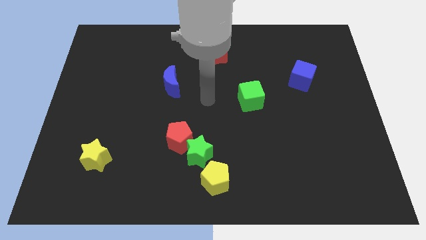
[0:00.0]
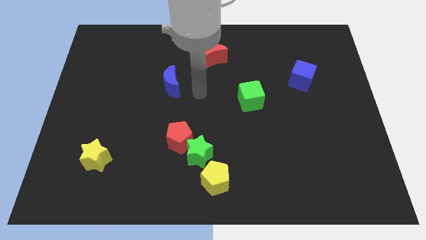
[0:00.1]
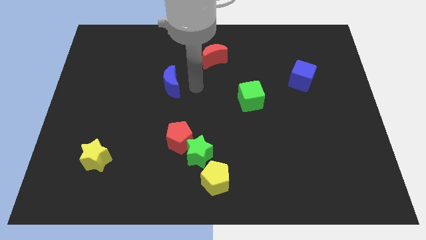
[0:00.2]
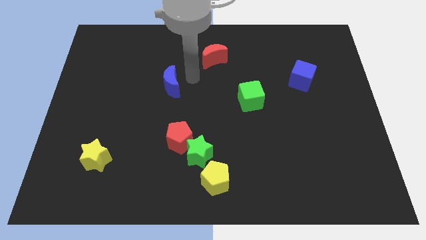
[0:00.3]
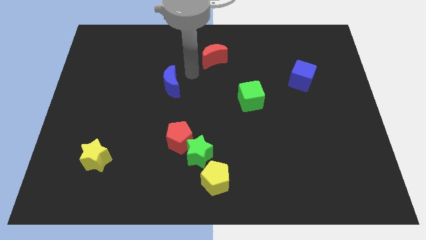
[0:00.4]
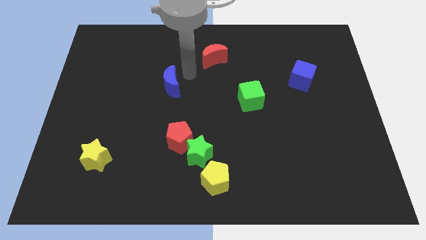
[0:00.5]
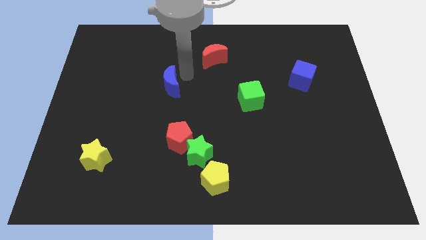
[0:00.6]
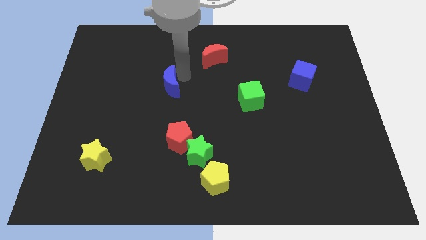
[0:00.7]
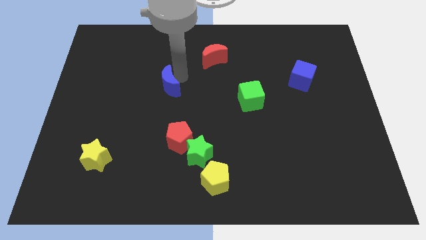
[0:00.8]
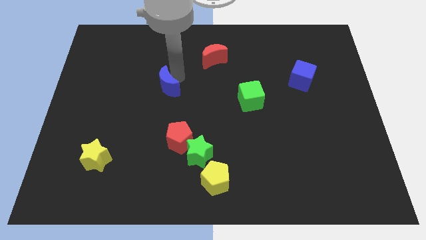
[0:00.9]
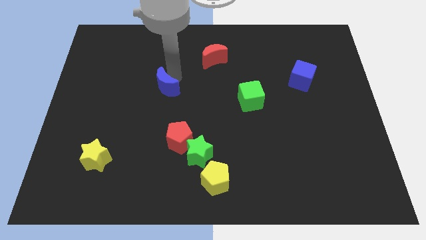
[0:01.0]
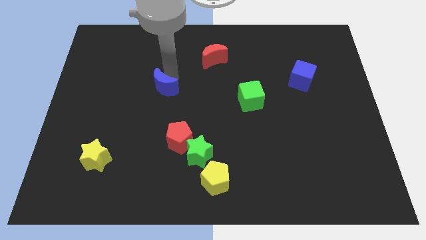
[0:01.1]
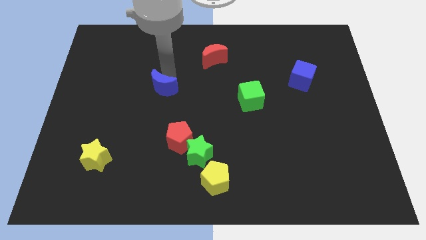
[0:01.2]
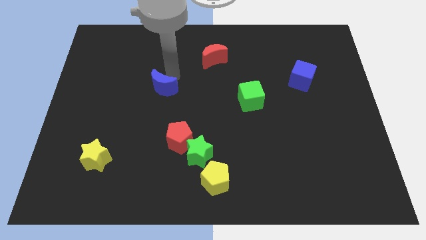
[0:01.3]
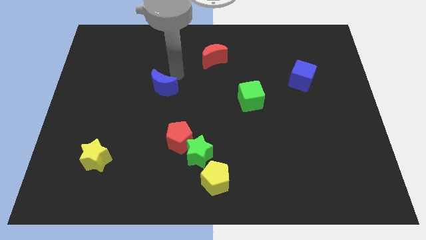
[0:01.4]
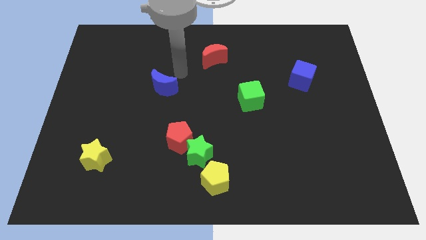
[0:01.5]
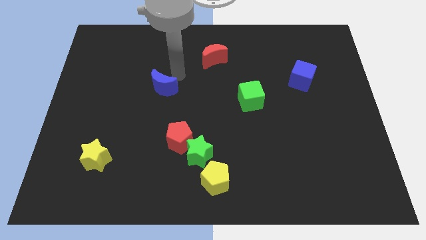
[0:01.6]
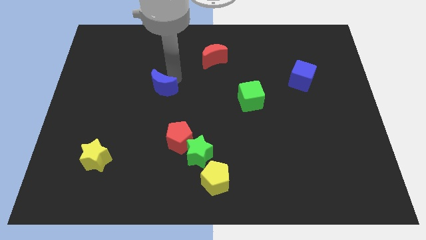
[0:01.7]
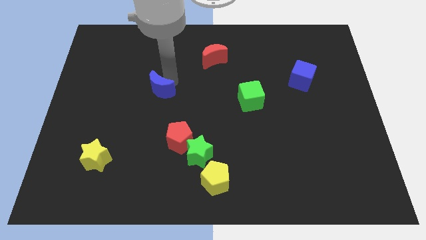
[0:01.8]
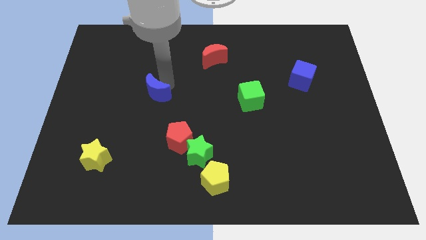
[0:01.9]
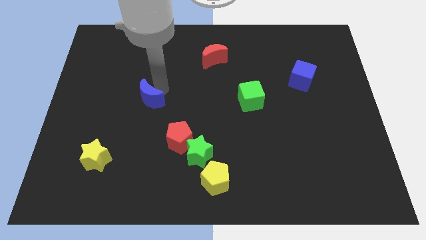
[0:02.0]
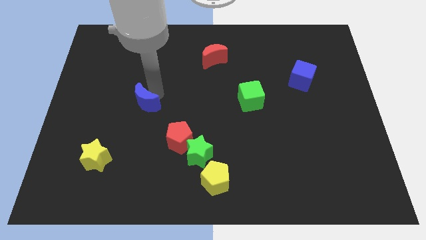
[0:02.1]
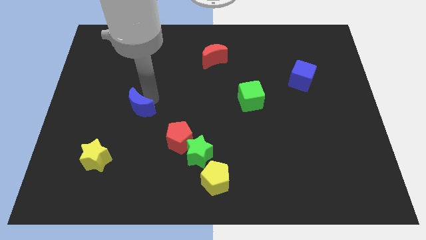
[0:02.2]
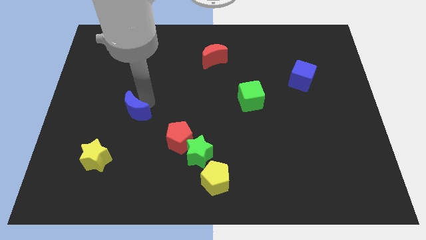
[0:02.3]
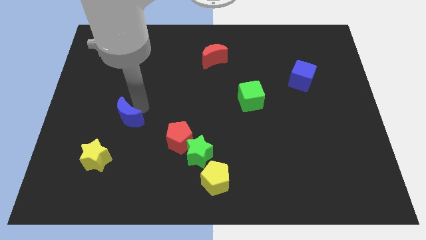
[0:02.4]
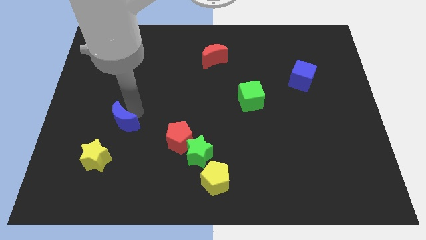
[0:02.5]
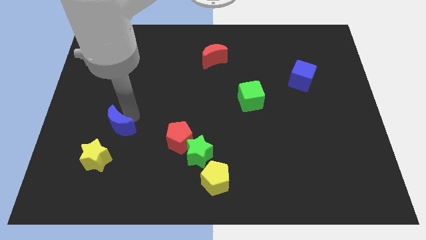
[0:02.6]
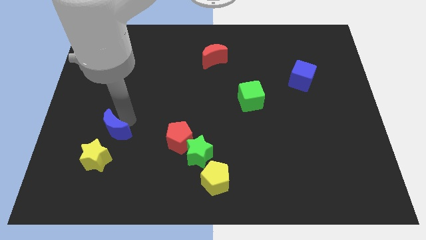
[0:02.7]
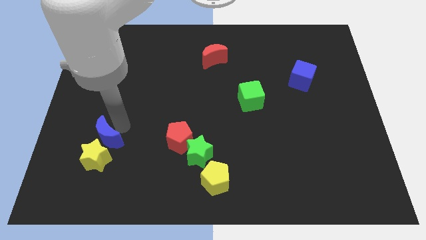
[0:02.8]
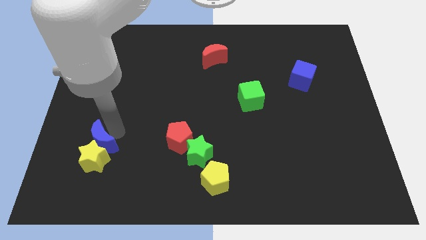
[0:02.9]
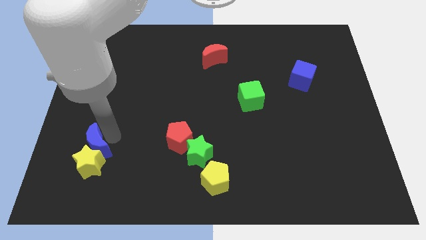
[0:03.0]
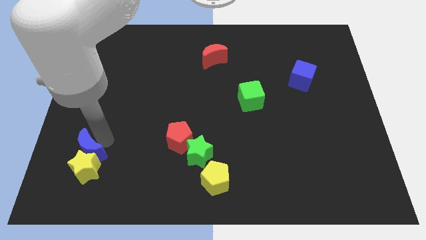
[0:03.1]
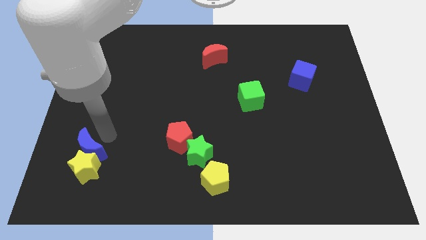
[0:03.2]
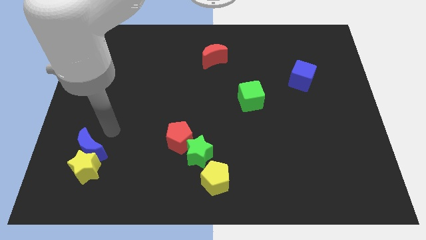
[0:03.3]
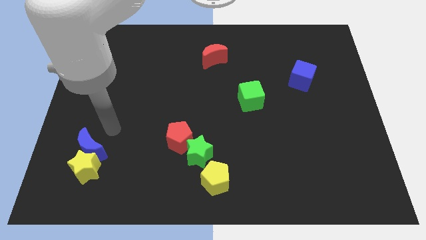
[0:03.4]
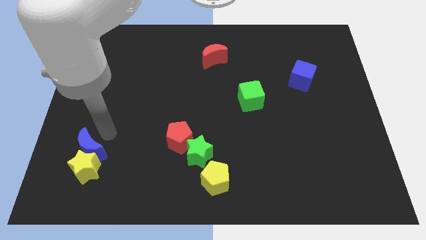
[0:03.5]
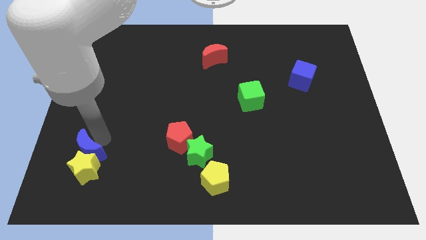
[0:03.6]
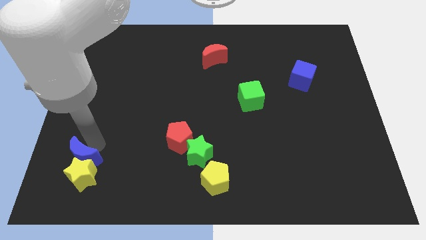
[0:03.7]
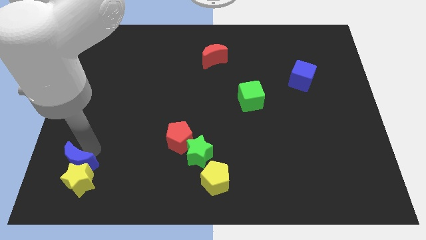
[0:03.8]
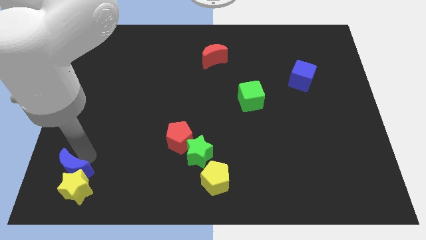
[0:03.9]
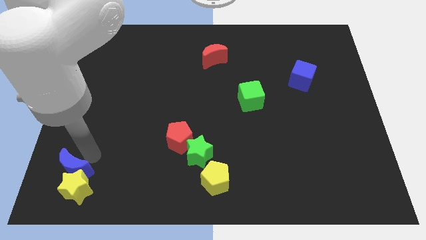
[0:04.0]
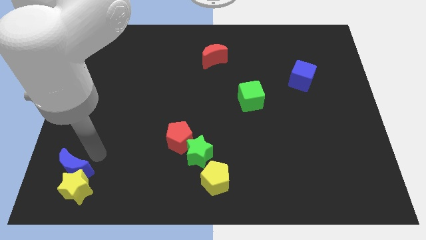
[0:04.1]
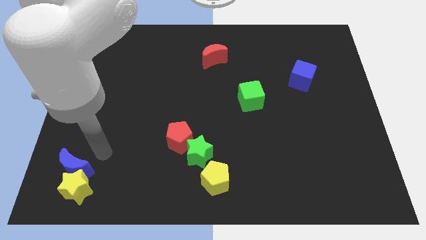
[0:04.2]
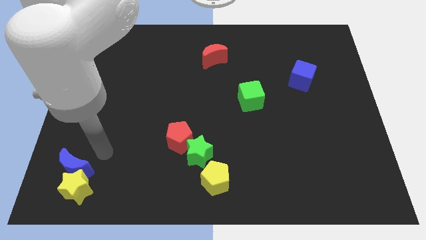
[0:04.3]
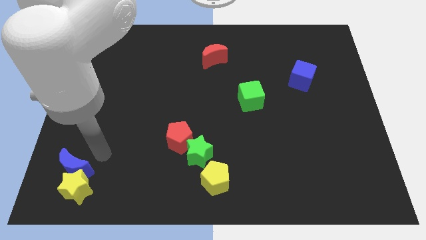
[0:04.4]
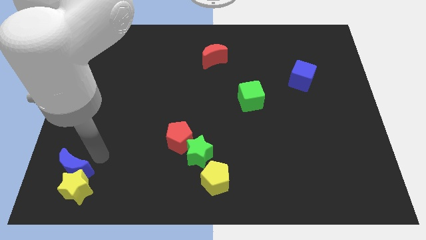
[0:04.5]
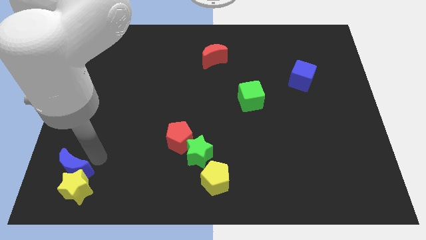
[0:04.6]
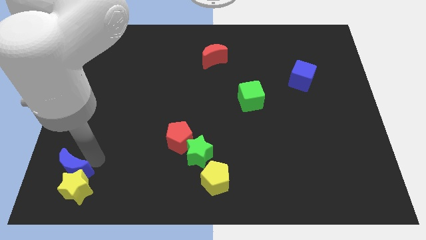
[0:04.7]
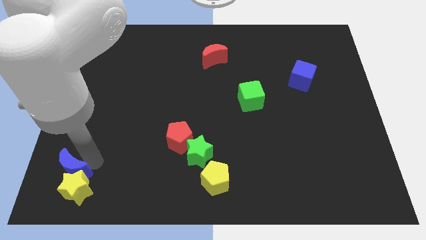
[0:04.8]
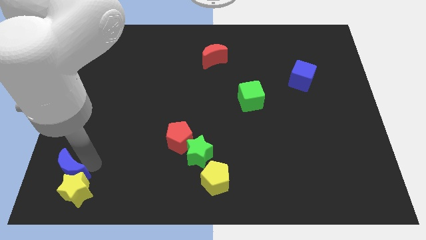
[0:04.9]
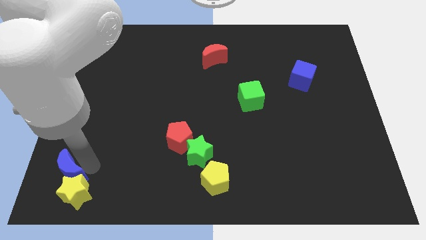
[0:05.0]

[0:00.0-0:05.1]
slide the blue moon to the bottom left

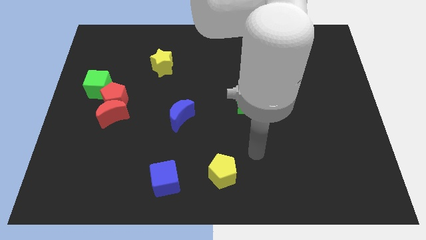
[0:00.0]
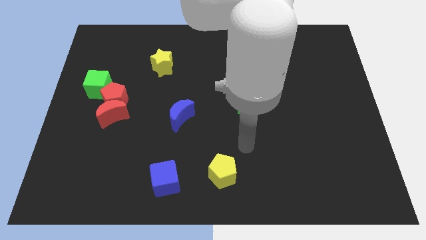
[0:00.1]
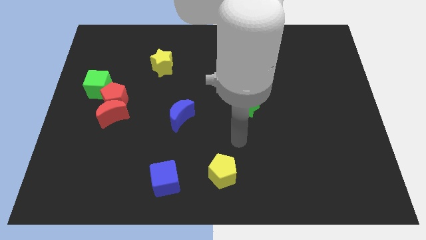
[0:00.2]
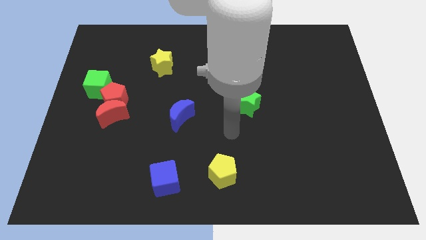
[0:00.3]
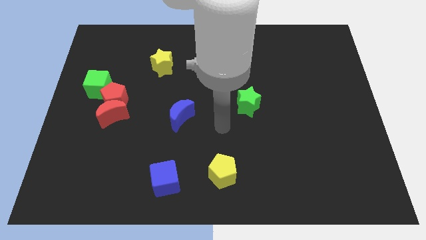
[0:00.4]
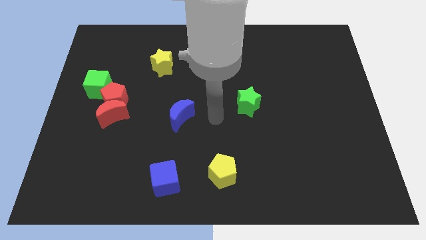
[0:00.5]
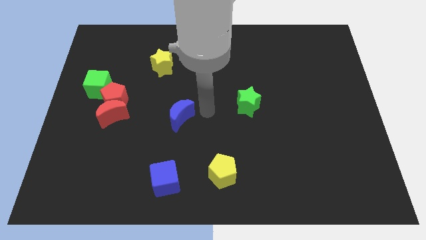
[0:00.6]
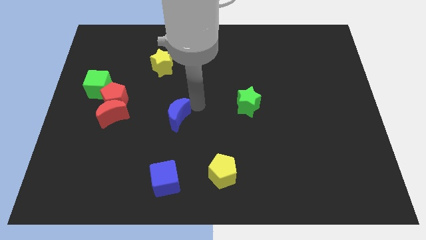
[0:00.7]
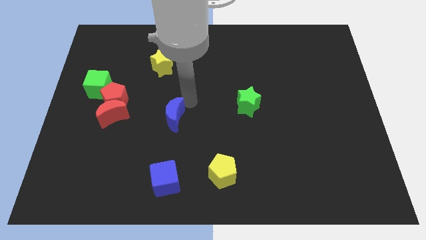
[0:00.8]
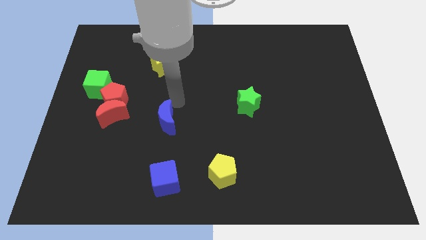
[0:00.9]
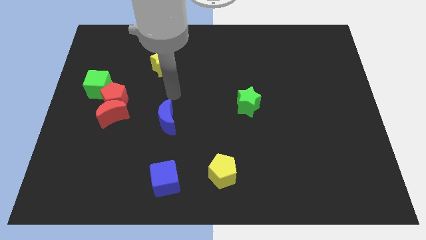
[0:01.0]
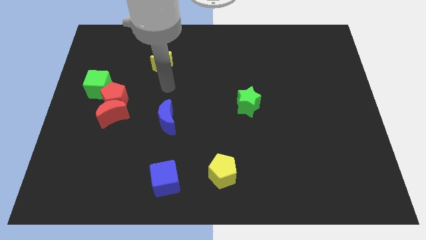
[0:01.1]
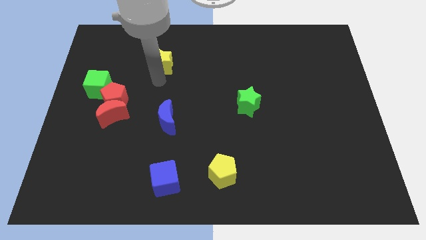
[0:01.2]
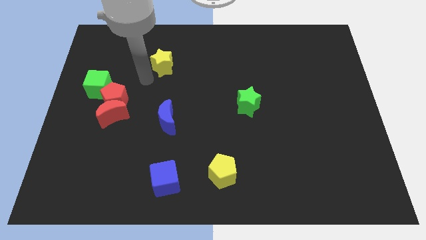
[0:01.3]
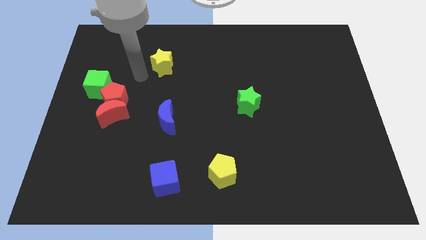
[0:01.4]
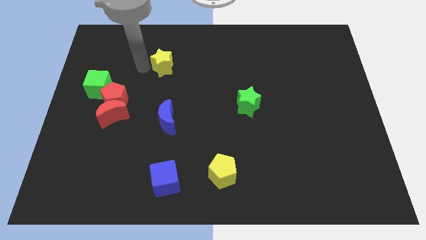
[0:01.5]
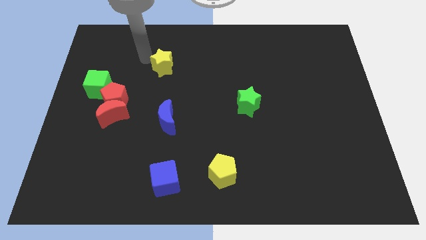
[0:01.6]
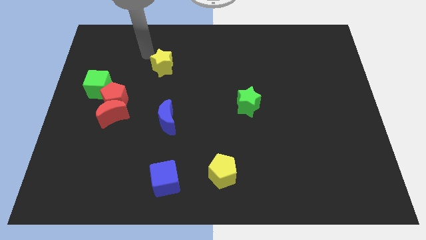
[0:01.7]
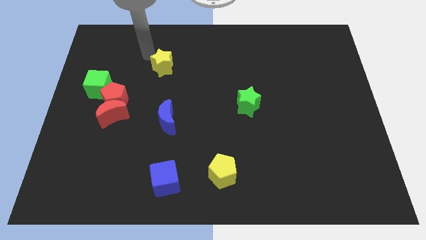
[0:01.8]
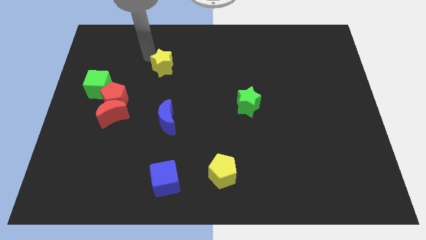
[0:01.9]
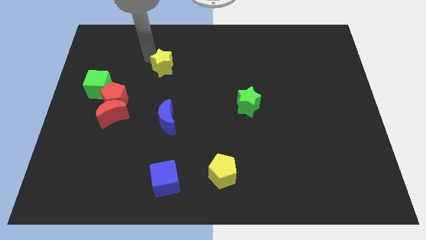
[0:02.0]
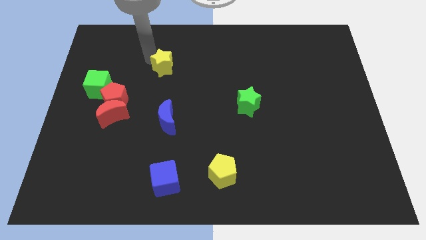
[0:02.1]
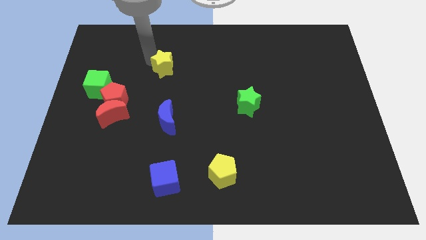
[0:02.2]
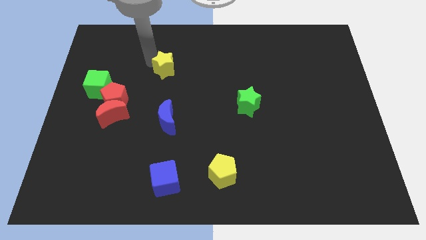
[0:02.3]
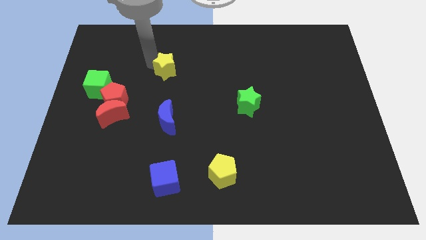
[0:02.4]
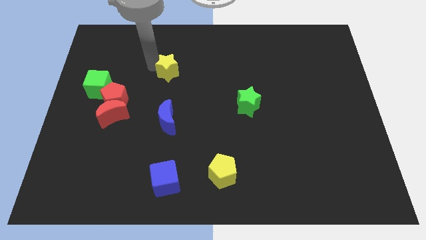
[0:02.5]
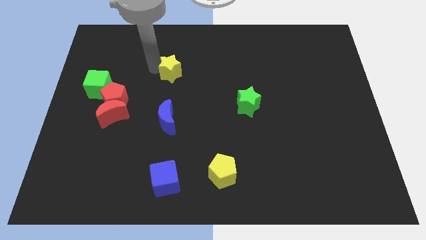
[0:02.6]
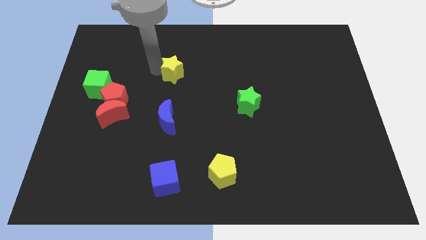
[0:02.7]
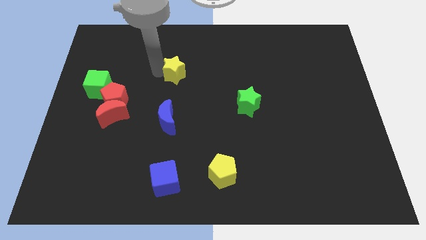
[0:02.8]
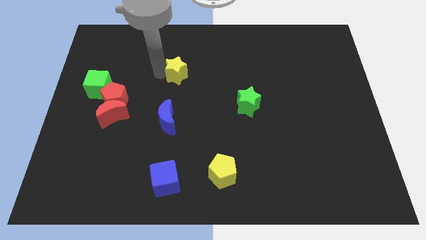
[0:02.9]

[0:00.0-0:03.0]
push the yellow star to the middle of the board
